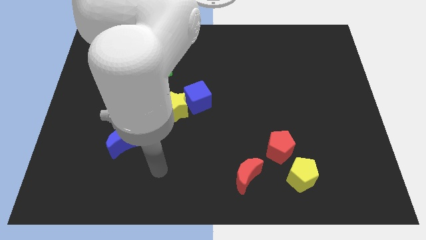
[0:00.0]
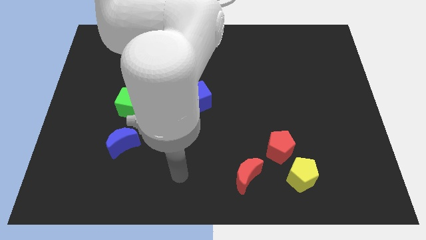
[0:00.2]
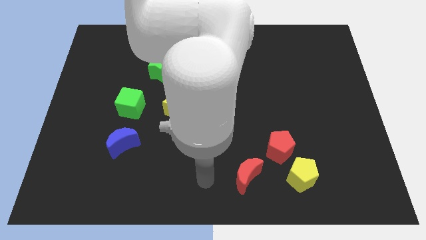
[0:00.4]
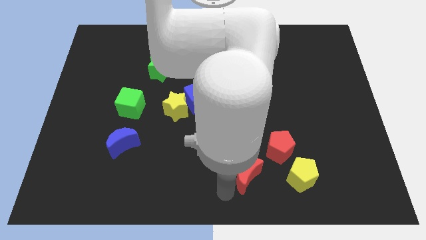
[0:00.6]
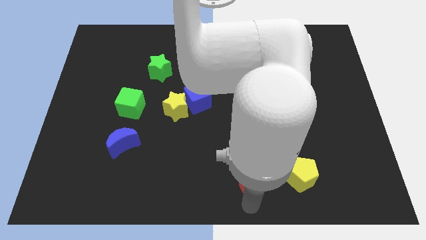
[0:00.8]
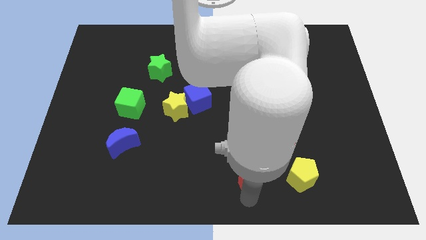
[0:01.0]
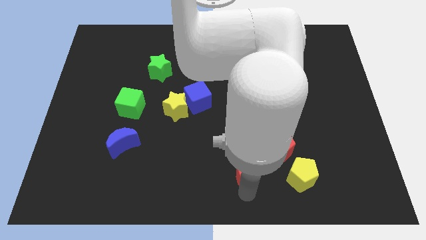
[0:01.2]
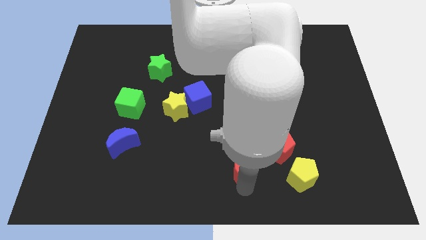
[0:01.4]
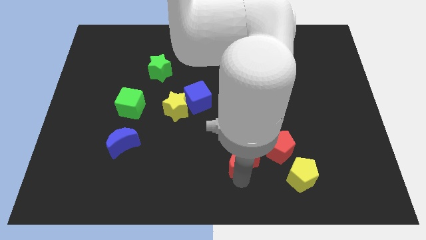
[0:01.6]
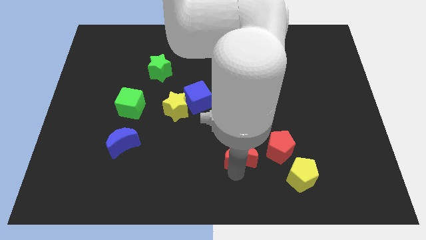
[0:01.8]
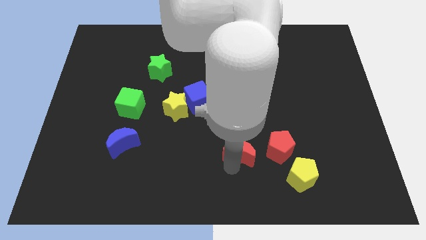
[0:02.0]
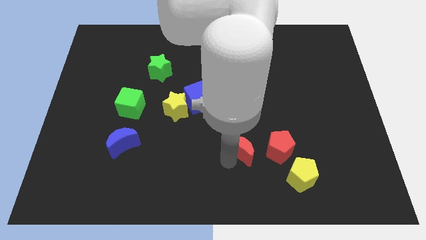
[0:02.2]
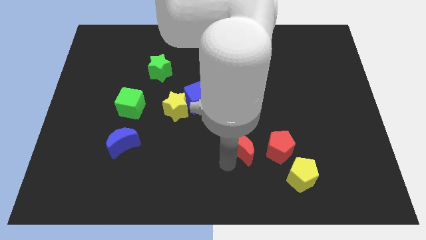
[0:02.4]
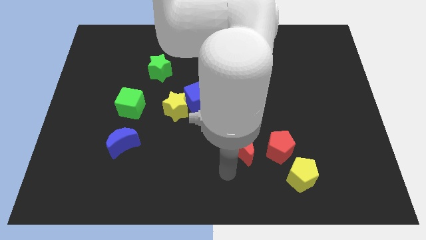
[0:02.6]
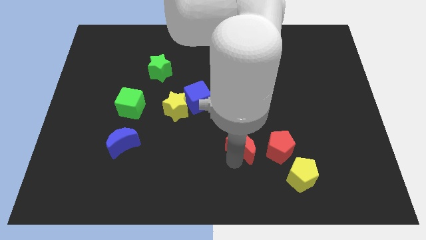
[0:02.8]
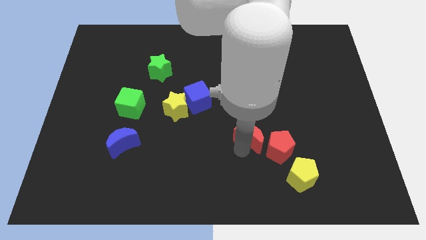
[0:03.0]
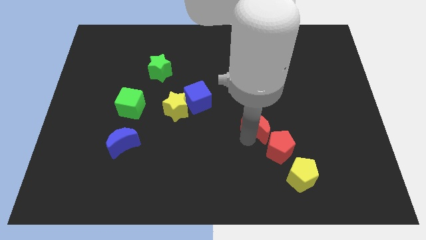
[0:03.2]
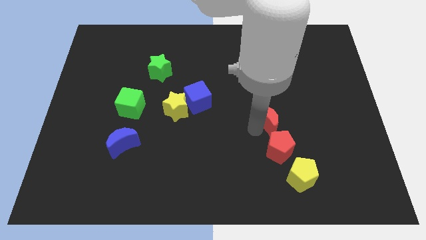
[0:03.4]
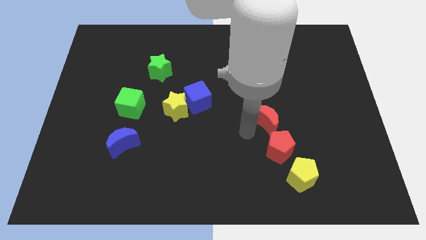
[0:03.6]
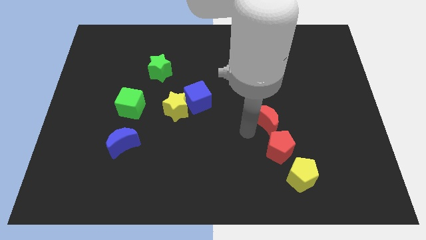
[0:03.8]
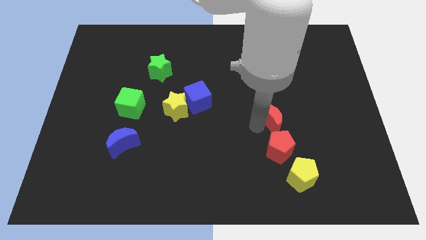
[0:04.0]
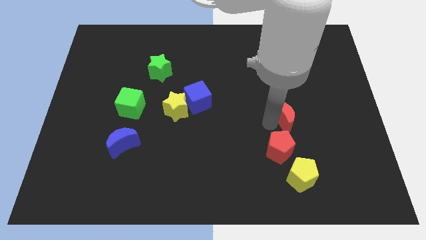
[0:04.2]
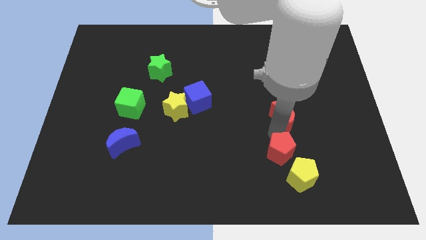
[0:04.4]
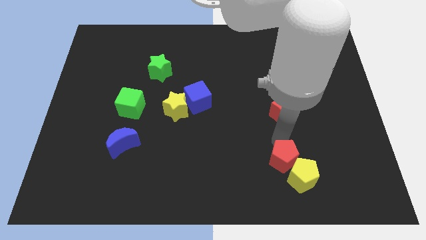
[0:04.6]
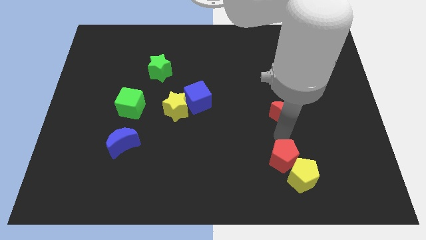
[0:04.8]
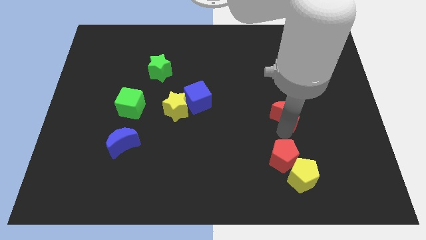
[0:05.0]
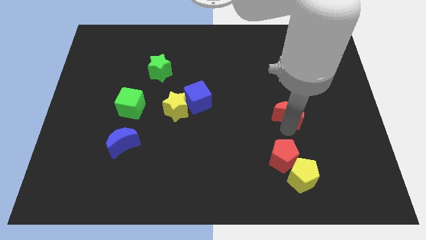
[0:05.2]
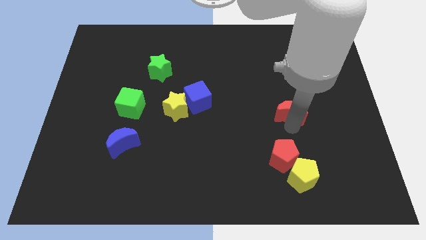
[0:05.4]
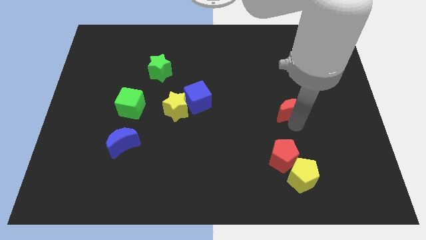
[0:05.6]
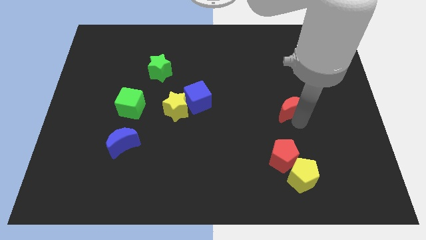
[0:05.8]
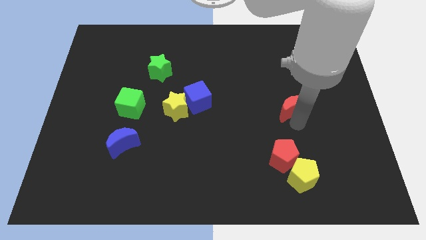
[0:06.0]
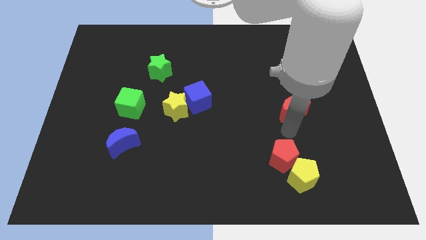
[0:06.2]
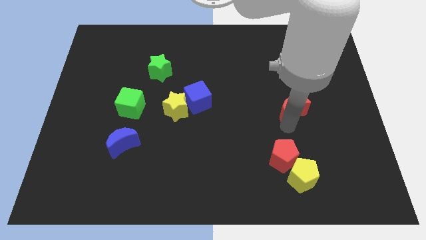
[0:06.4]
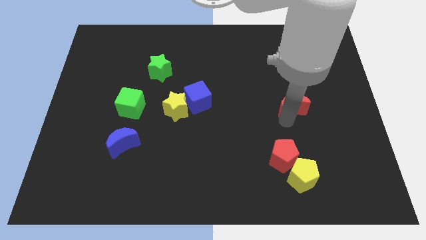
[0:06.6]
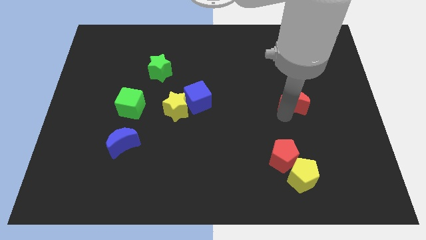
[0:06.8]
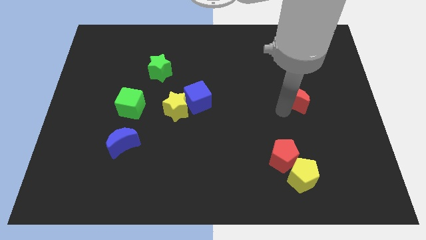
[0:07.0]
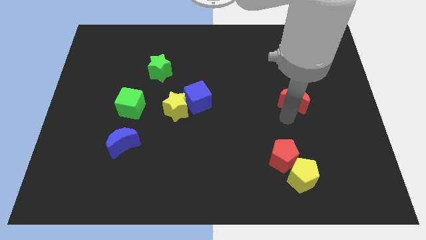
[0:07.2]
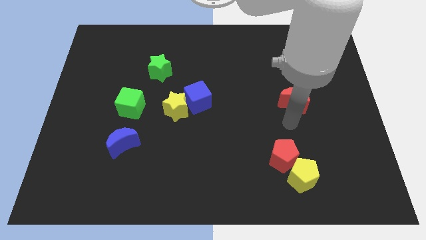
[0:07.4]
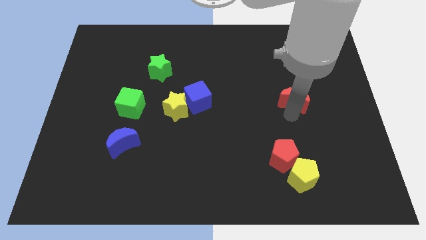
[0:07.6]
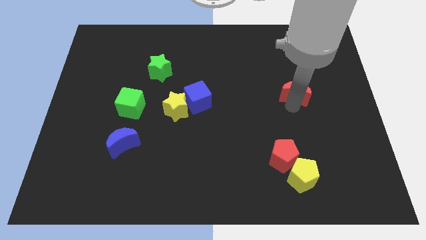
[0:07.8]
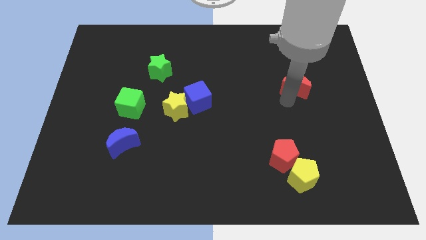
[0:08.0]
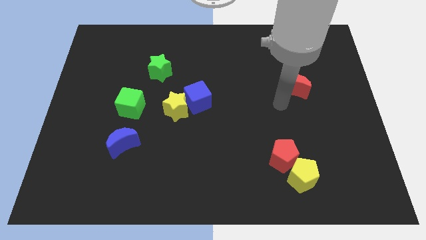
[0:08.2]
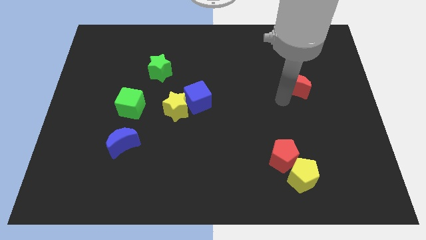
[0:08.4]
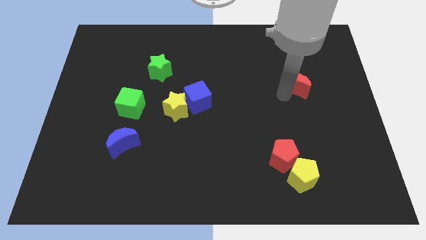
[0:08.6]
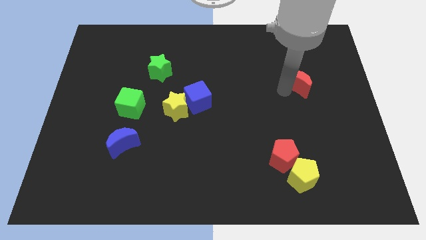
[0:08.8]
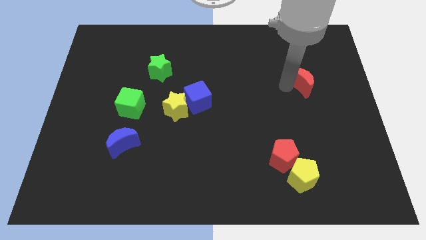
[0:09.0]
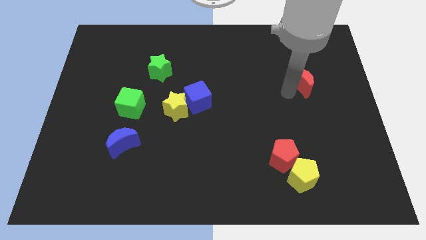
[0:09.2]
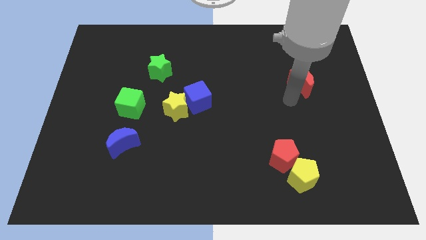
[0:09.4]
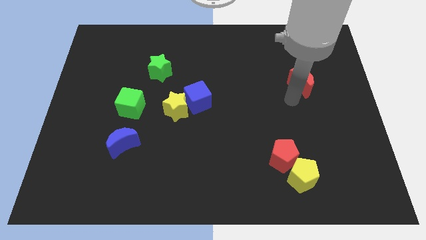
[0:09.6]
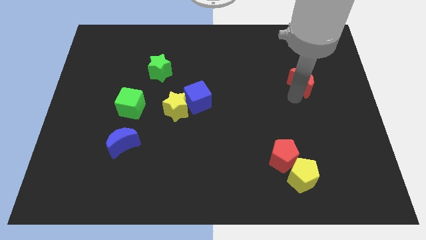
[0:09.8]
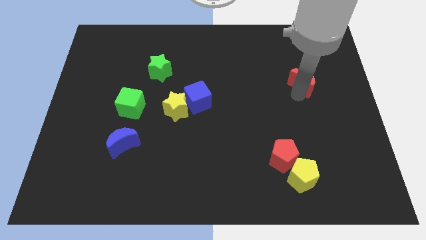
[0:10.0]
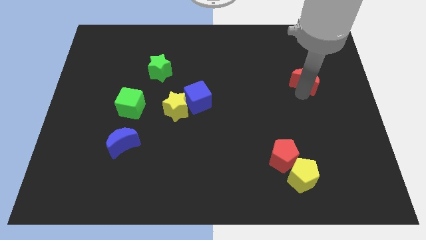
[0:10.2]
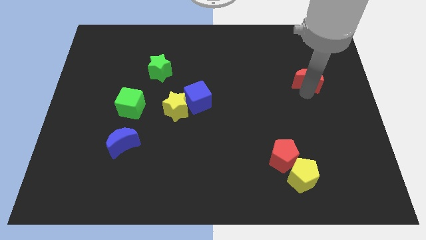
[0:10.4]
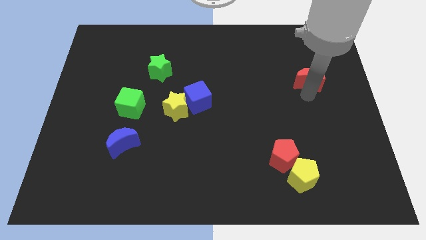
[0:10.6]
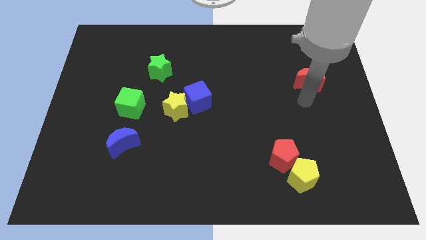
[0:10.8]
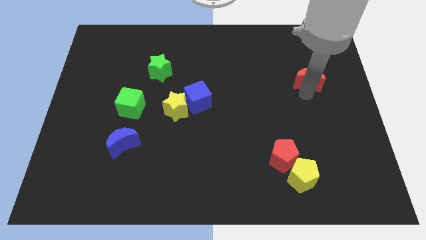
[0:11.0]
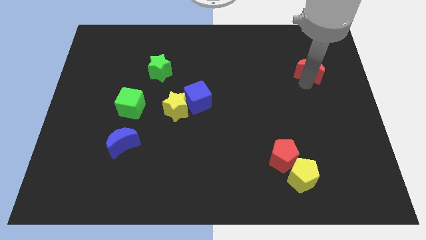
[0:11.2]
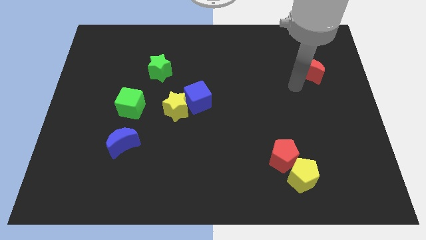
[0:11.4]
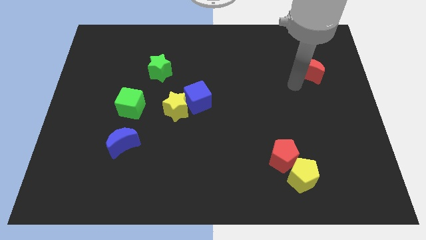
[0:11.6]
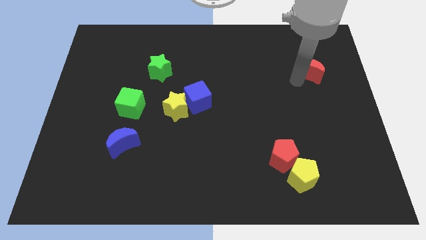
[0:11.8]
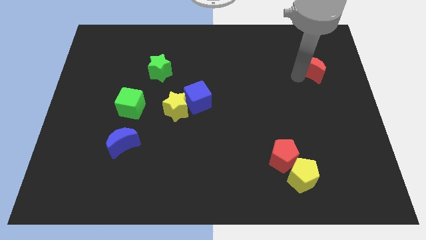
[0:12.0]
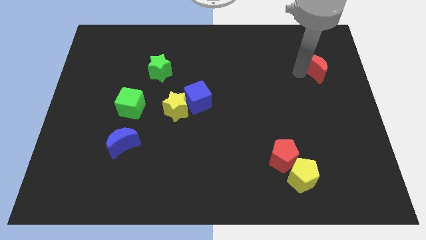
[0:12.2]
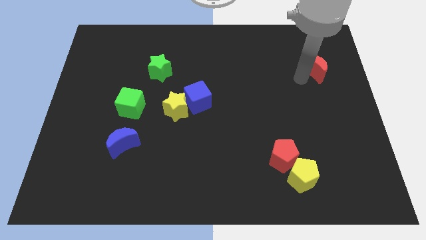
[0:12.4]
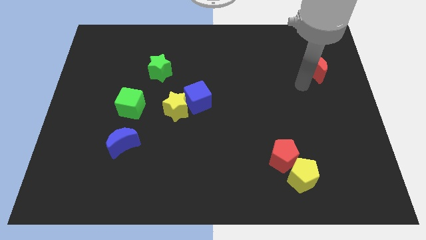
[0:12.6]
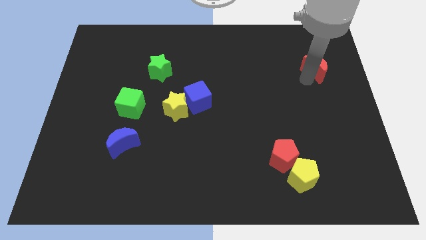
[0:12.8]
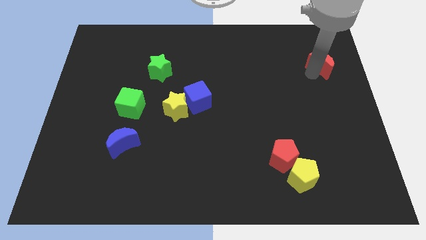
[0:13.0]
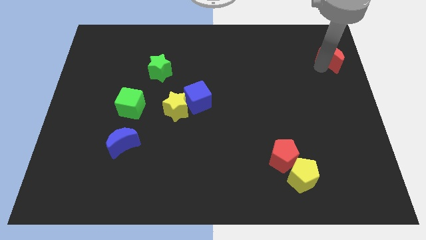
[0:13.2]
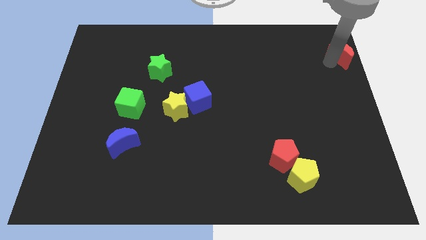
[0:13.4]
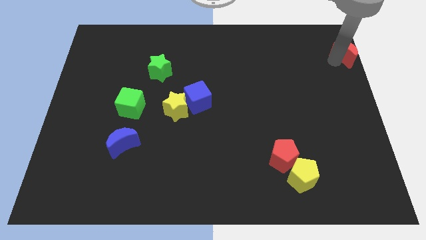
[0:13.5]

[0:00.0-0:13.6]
move the red moon to the top right corner
